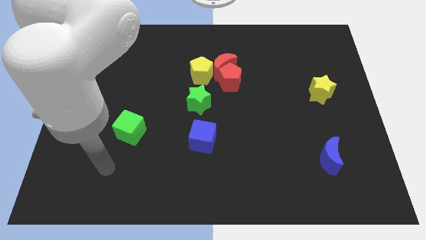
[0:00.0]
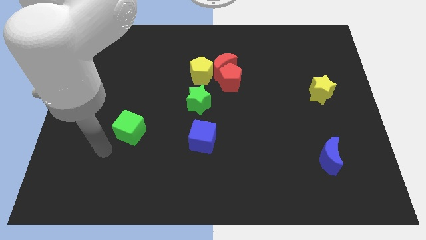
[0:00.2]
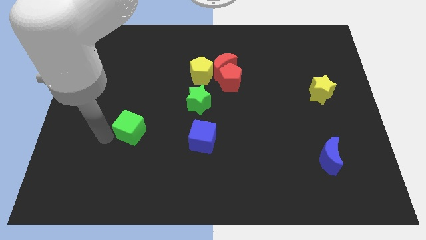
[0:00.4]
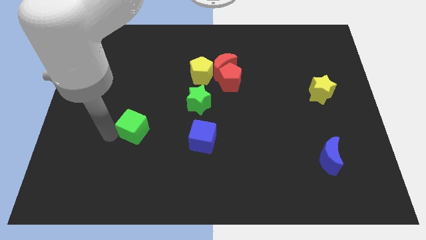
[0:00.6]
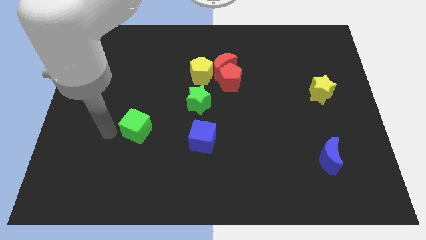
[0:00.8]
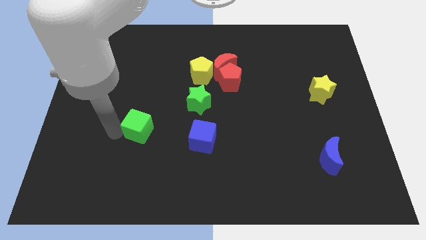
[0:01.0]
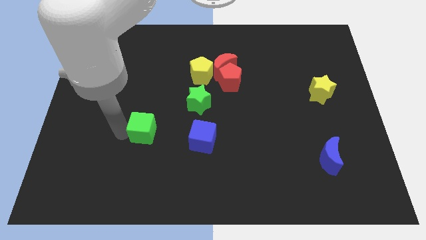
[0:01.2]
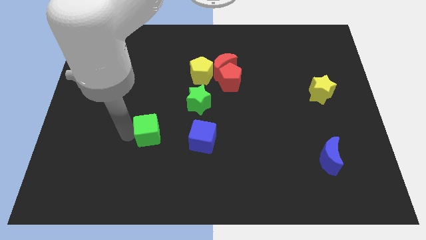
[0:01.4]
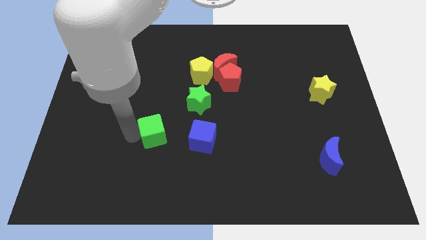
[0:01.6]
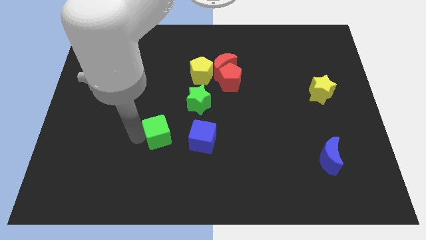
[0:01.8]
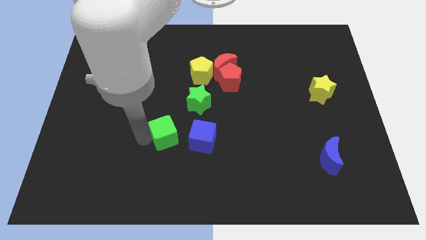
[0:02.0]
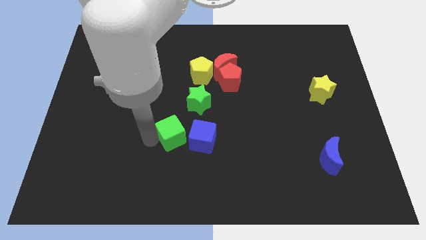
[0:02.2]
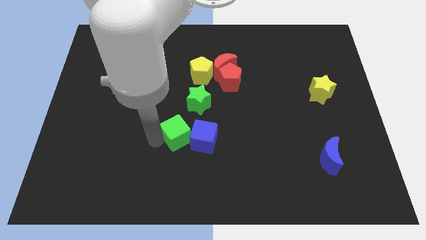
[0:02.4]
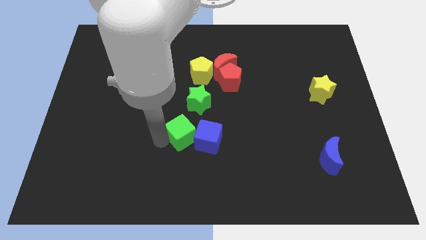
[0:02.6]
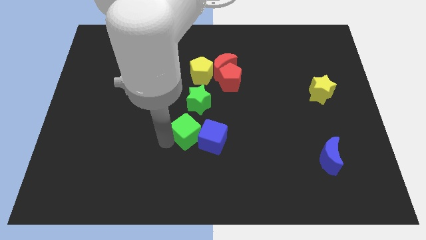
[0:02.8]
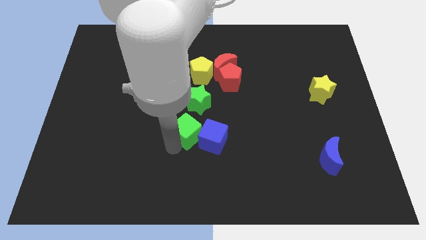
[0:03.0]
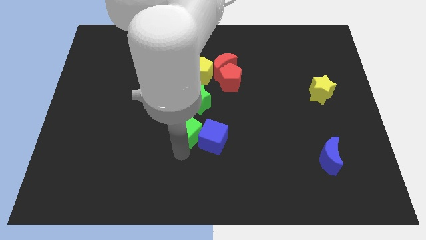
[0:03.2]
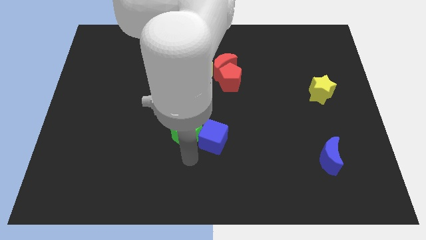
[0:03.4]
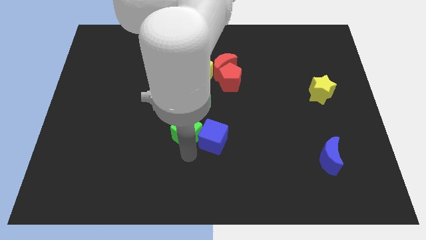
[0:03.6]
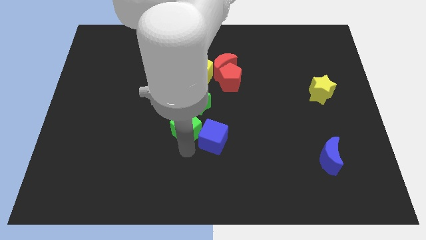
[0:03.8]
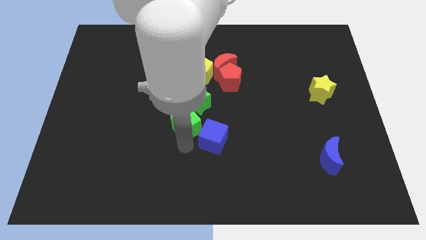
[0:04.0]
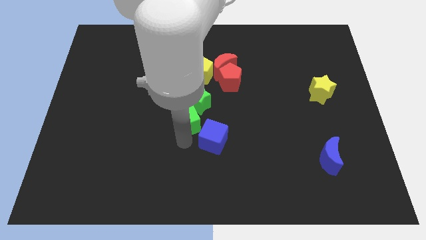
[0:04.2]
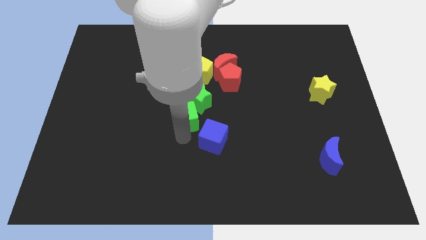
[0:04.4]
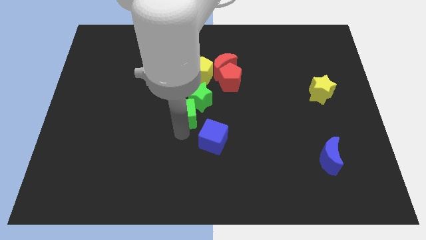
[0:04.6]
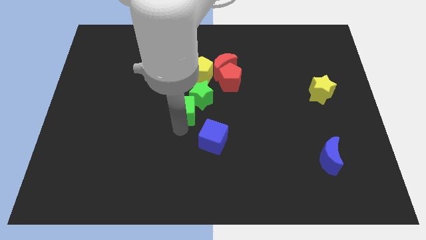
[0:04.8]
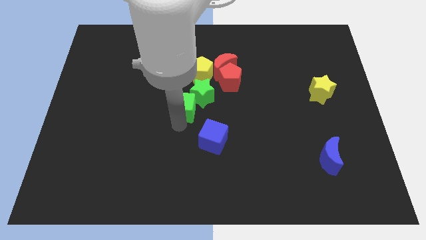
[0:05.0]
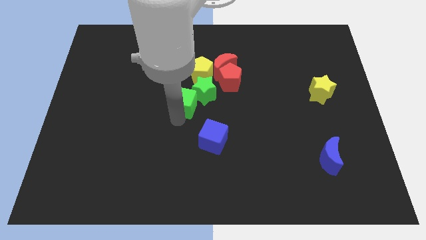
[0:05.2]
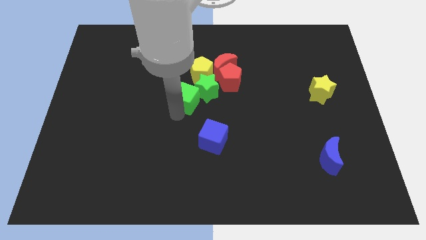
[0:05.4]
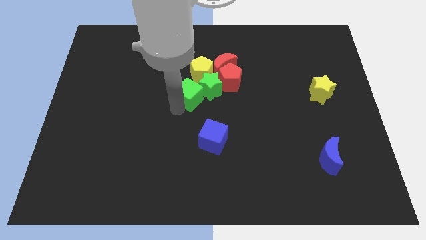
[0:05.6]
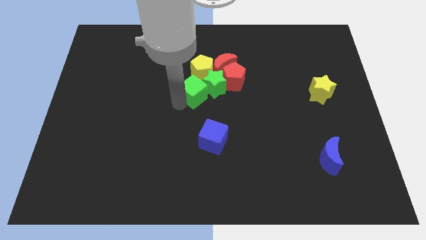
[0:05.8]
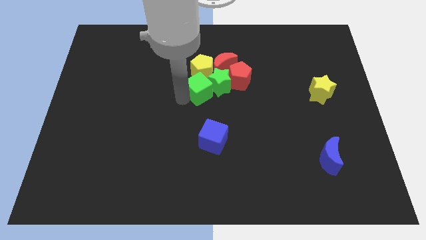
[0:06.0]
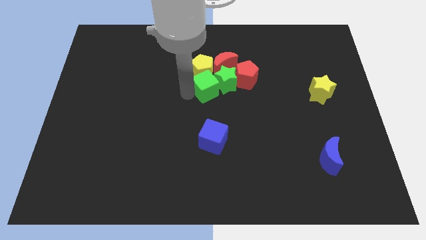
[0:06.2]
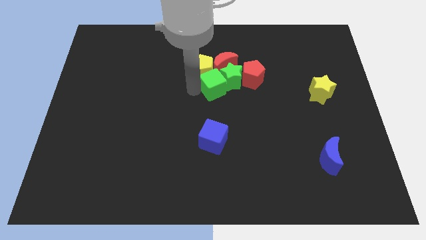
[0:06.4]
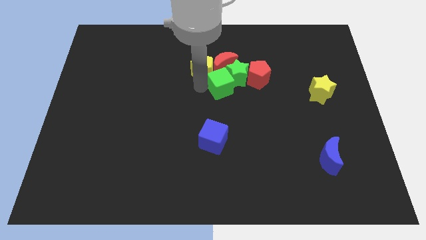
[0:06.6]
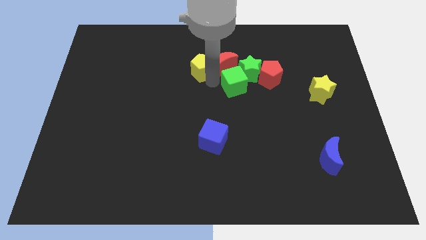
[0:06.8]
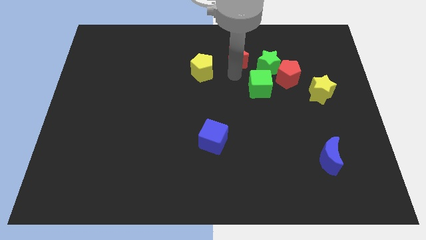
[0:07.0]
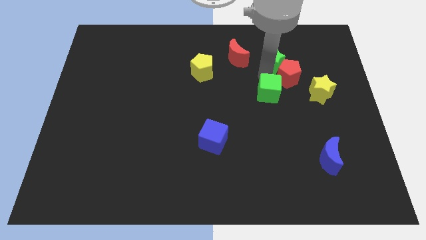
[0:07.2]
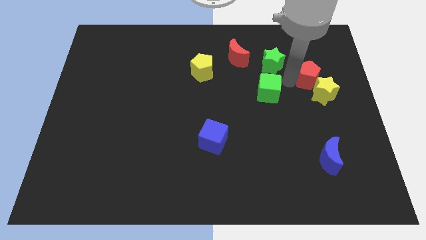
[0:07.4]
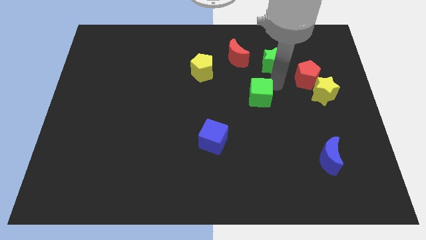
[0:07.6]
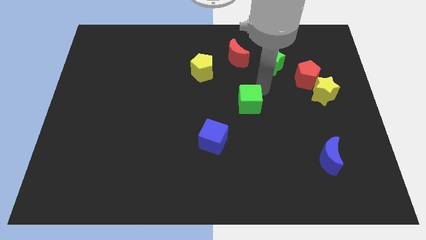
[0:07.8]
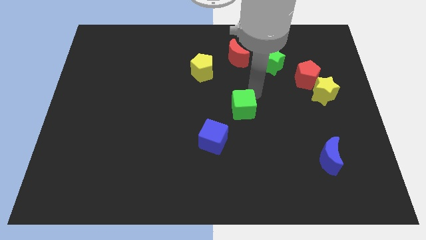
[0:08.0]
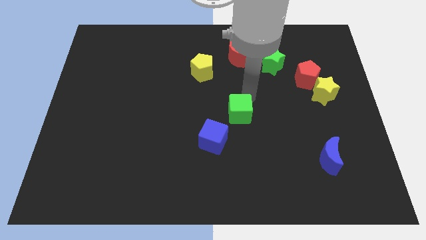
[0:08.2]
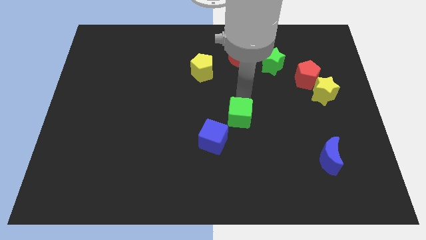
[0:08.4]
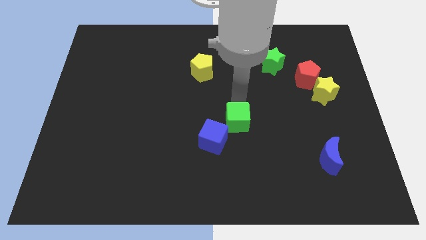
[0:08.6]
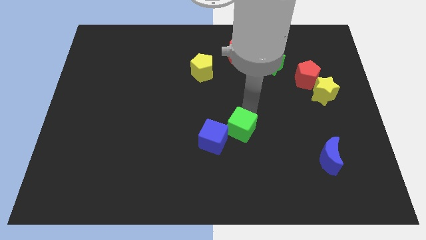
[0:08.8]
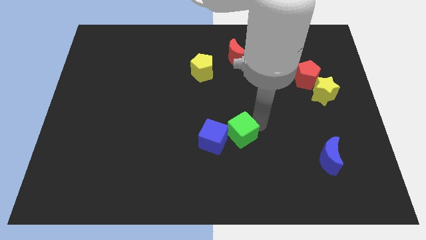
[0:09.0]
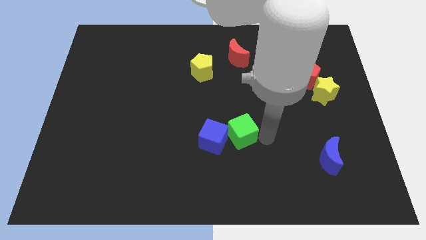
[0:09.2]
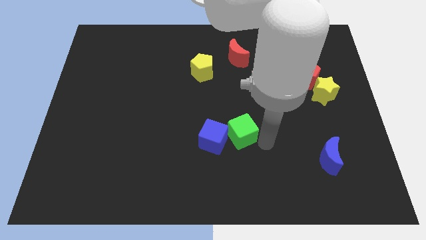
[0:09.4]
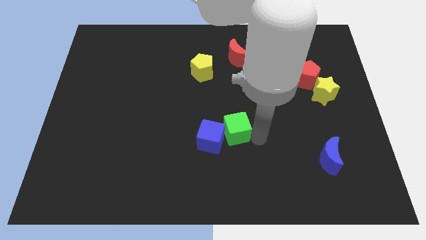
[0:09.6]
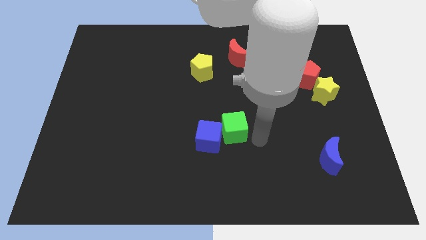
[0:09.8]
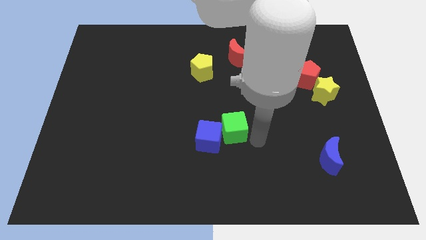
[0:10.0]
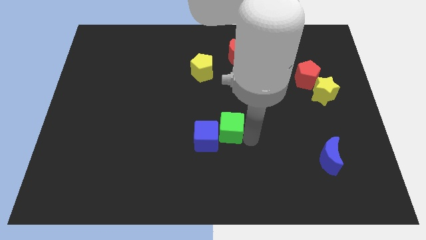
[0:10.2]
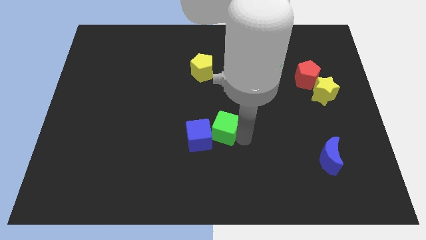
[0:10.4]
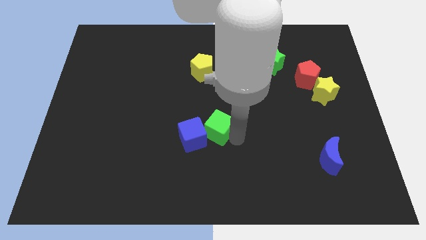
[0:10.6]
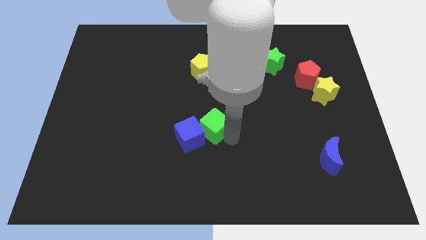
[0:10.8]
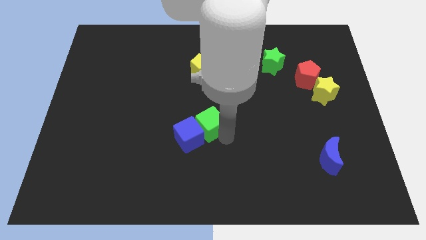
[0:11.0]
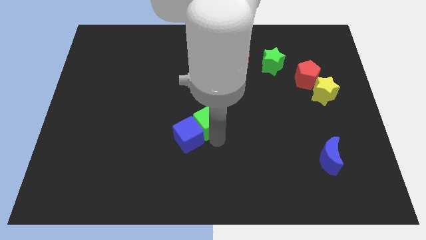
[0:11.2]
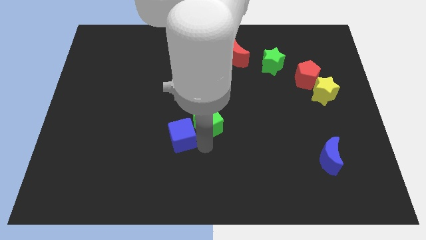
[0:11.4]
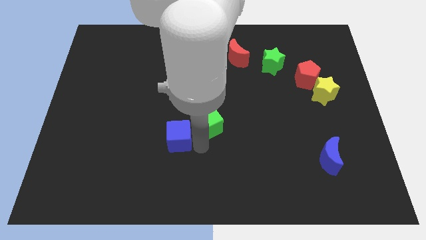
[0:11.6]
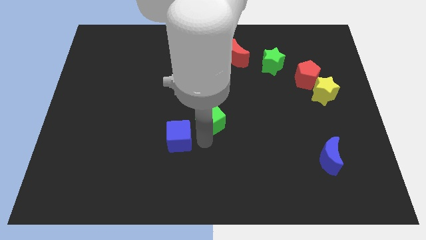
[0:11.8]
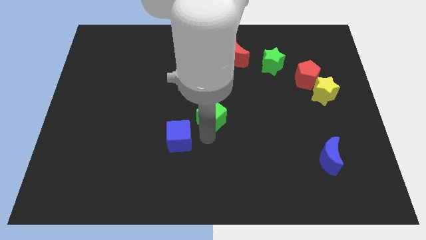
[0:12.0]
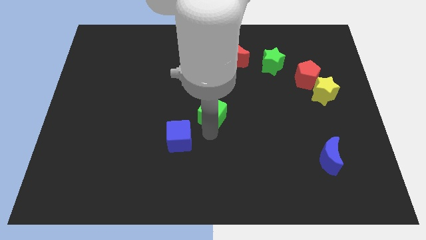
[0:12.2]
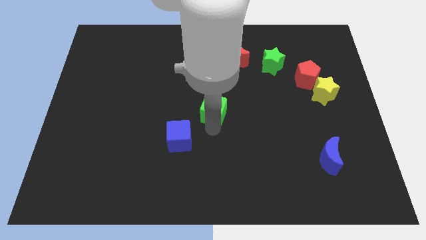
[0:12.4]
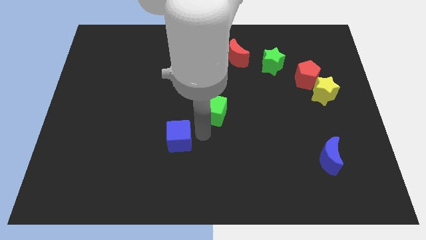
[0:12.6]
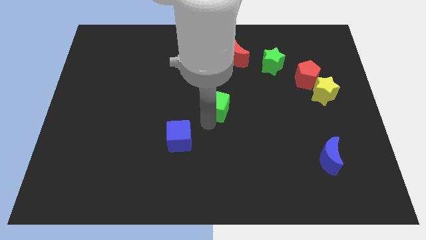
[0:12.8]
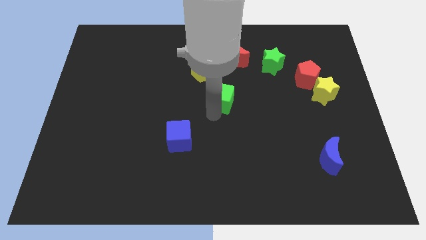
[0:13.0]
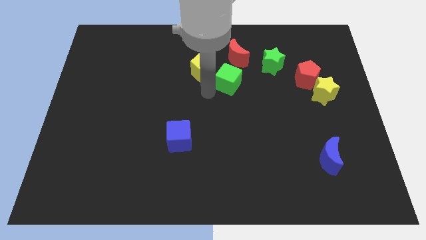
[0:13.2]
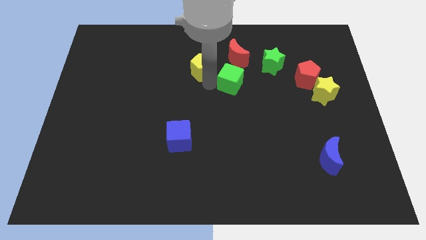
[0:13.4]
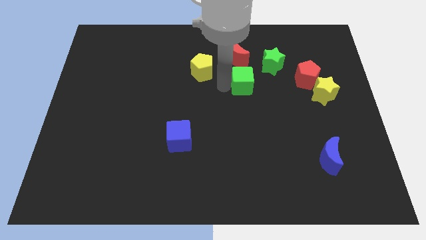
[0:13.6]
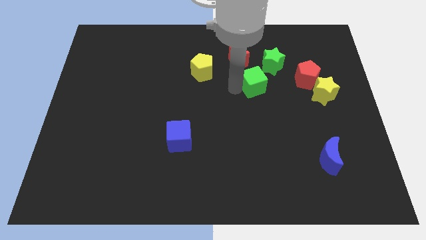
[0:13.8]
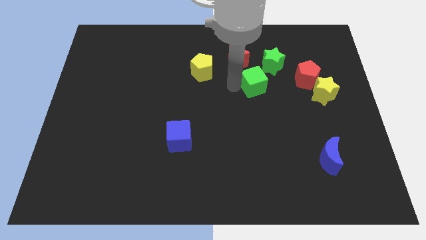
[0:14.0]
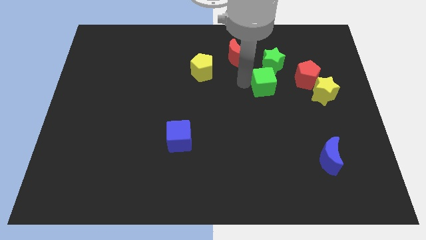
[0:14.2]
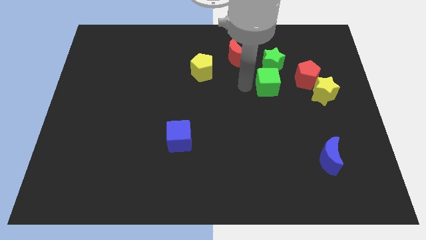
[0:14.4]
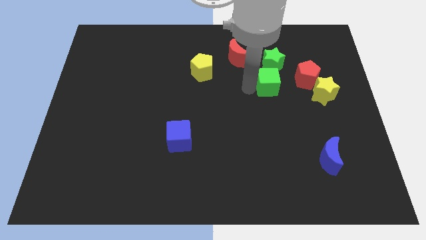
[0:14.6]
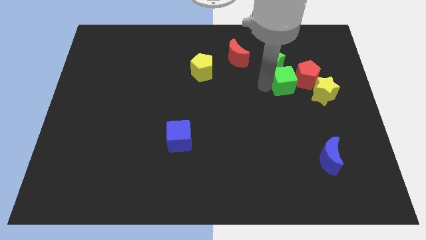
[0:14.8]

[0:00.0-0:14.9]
move the green cube next to the red pentagon
